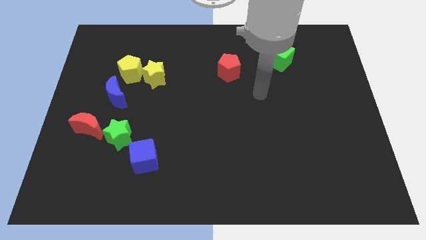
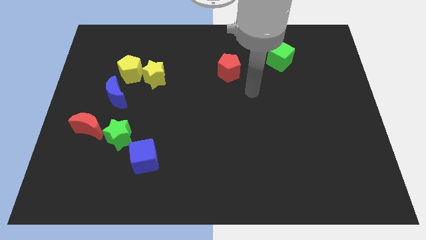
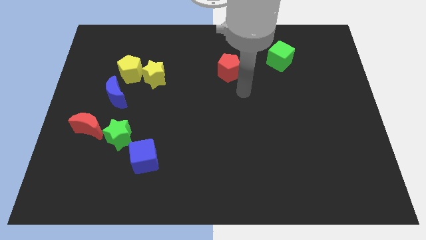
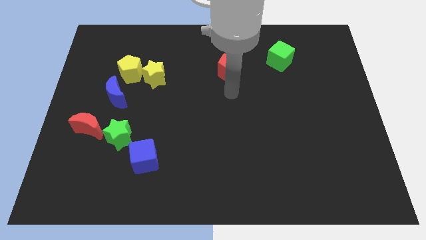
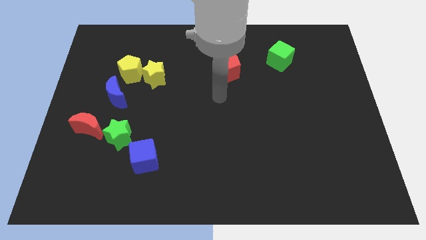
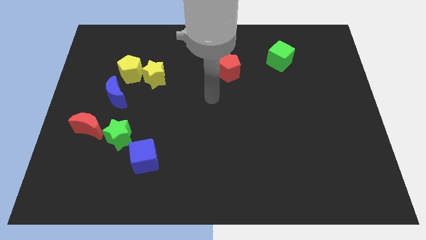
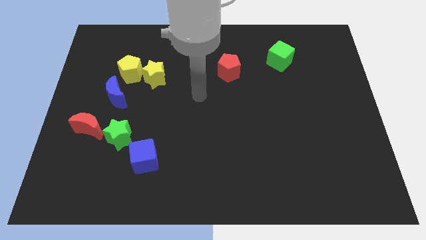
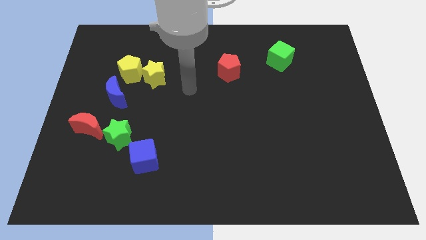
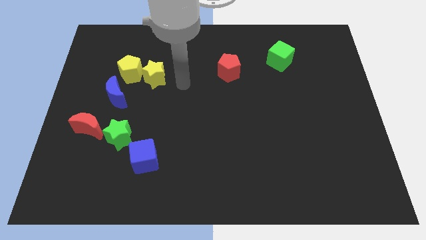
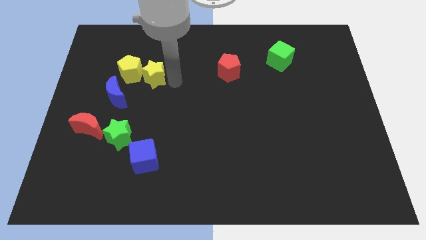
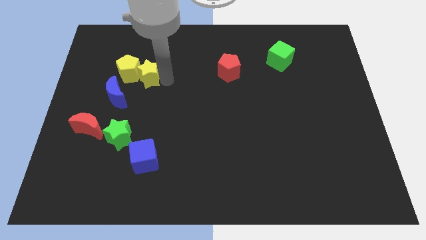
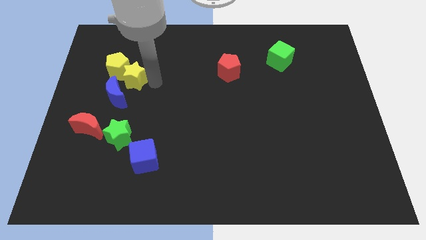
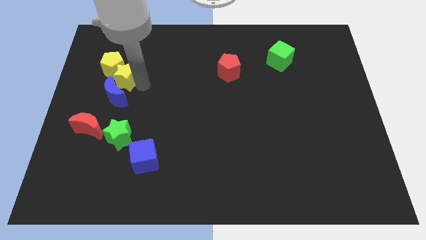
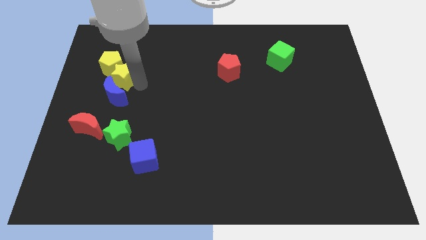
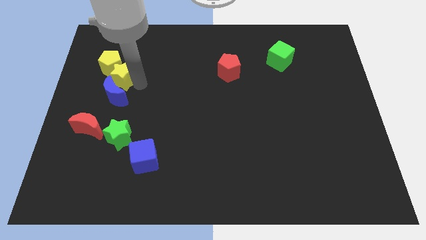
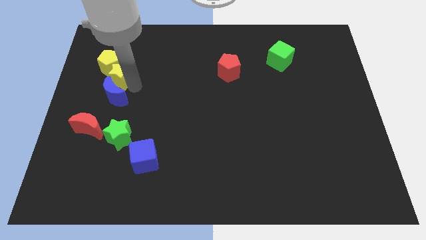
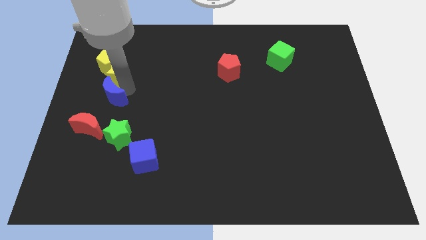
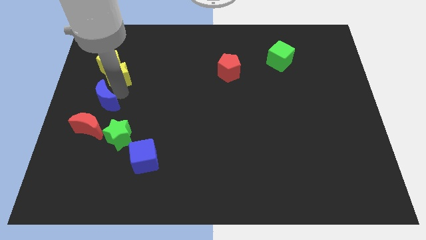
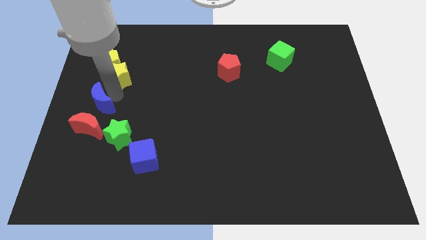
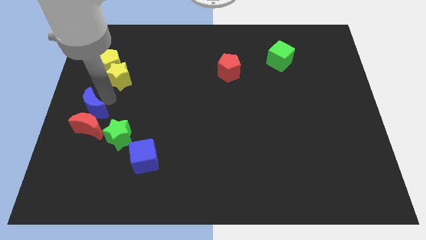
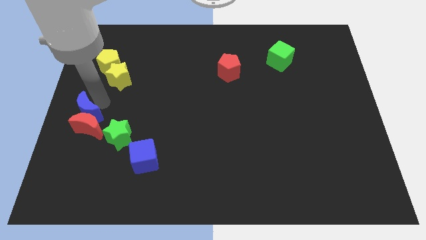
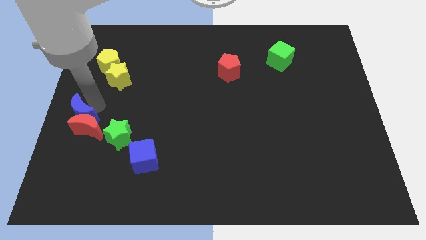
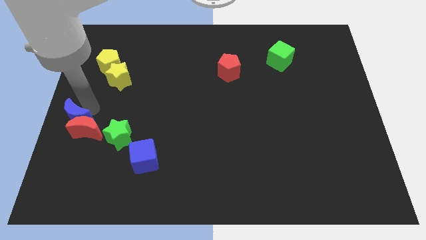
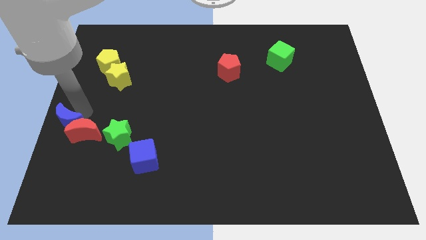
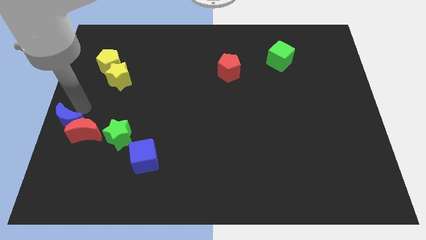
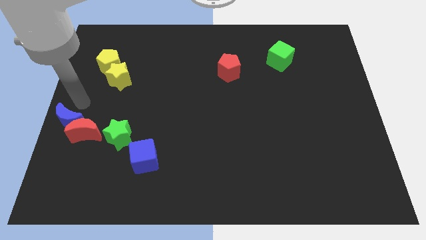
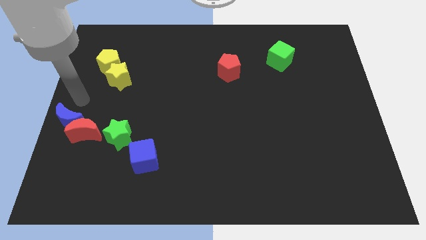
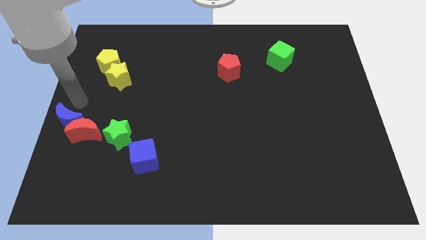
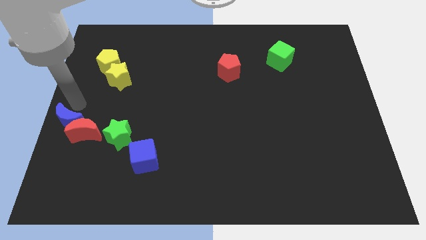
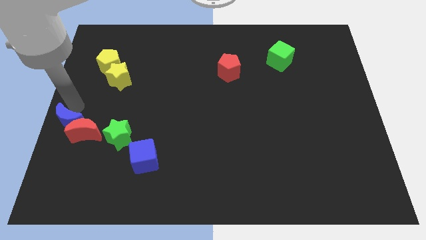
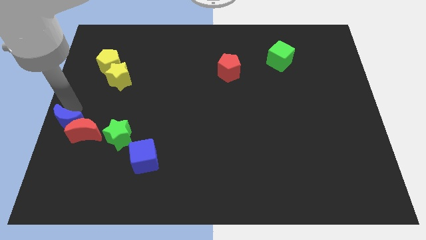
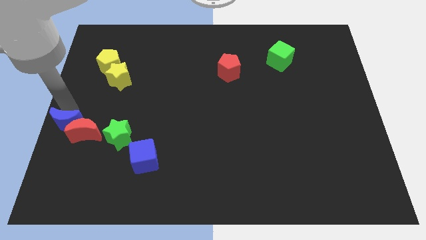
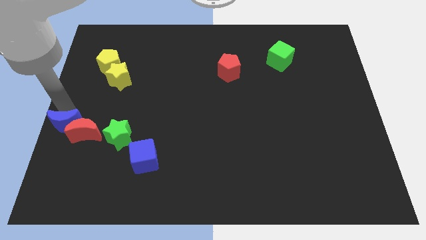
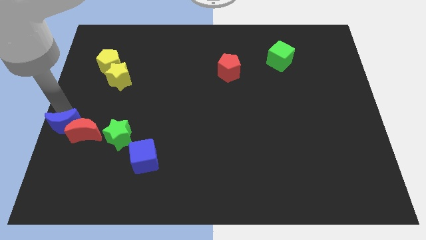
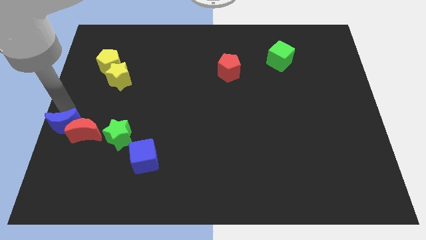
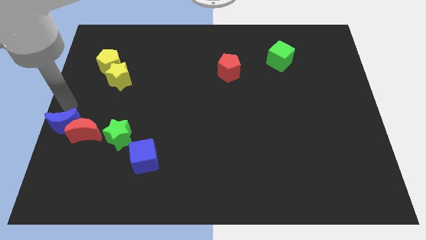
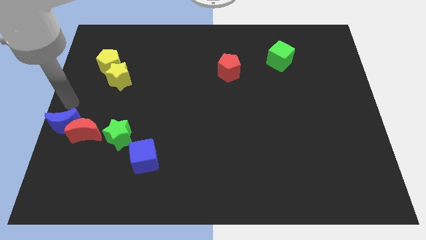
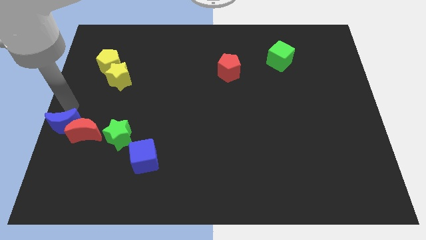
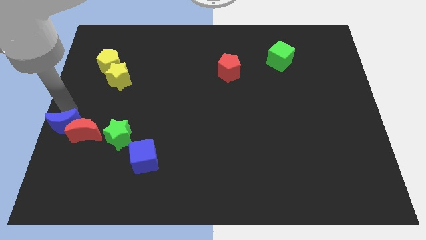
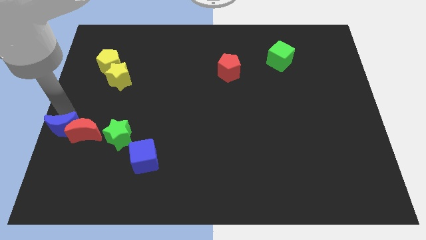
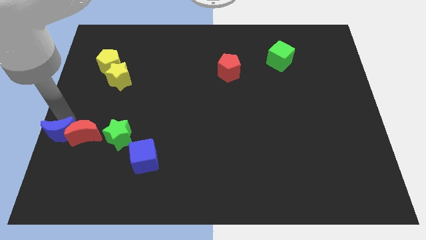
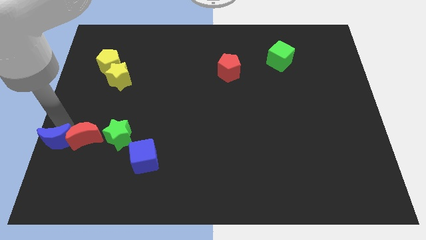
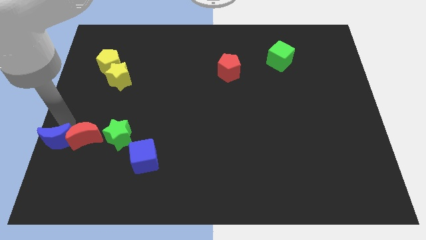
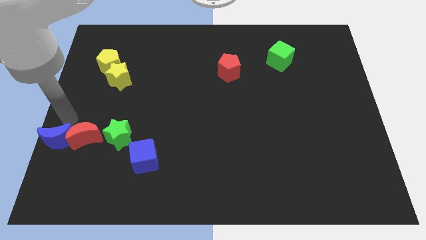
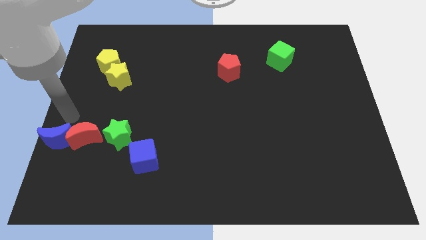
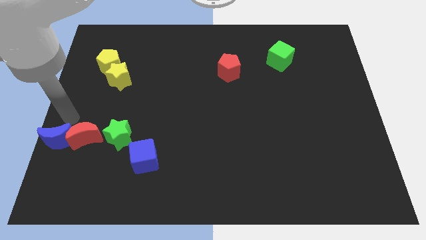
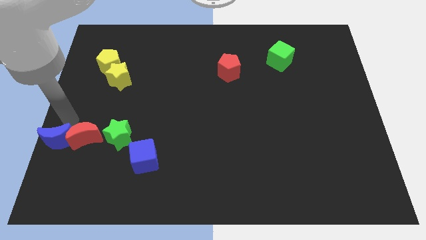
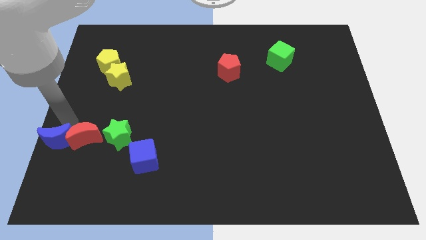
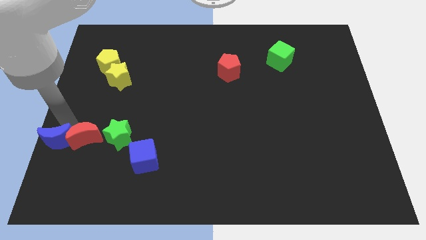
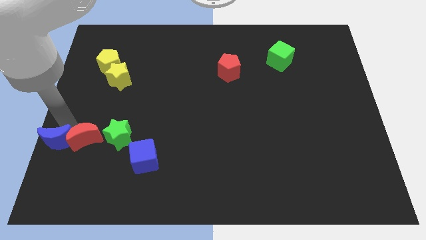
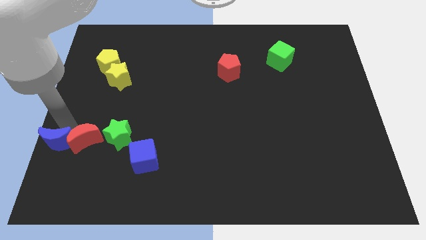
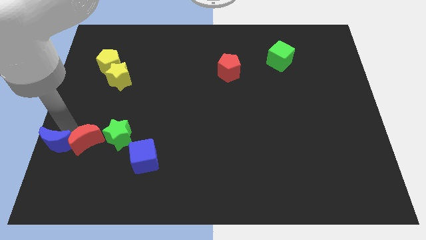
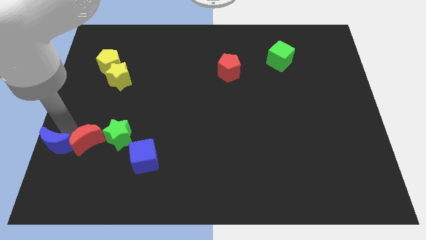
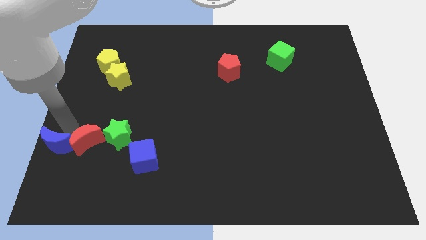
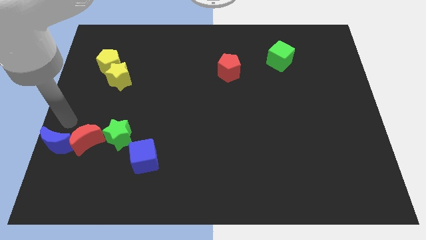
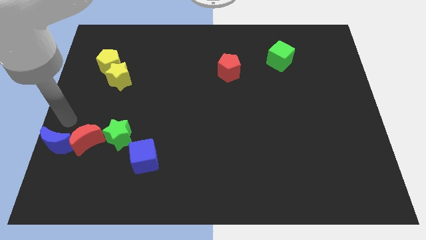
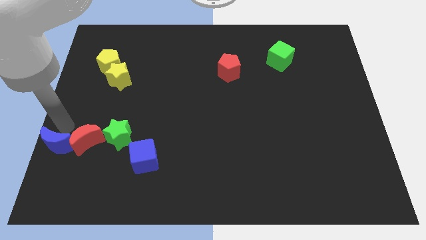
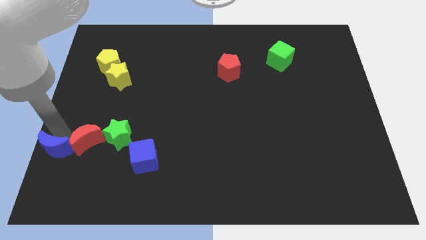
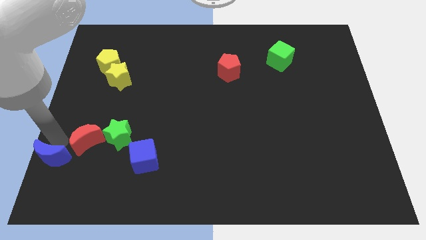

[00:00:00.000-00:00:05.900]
push the blue moon to the bottom left of the board

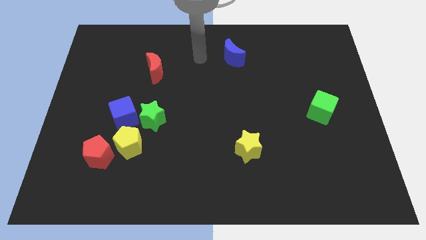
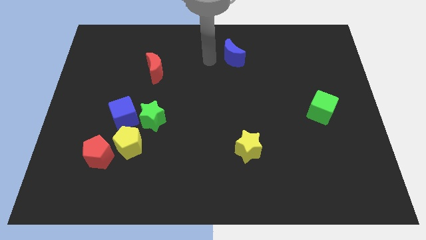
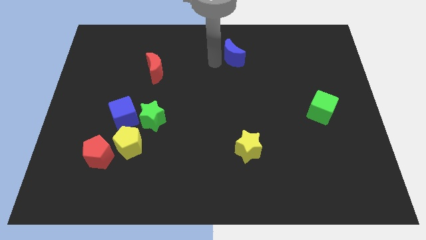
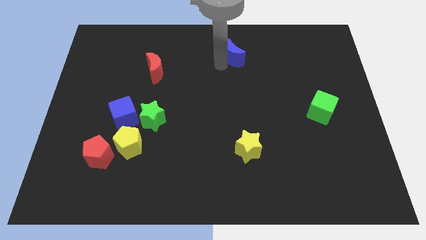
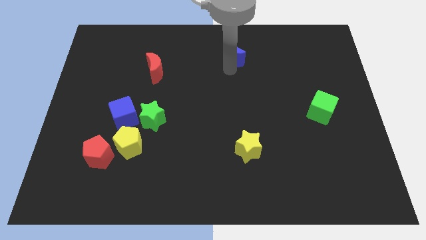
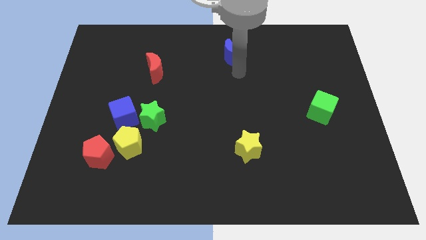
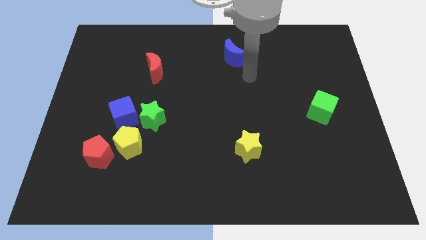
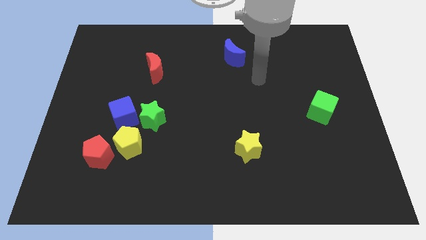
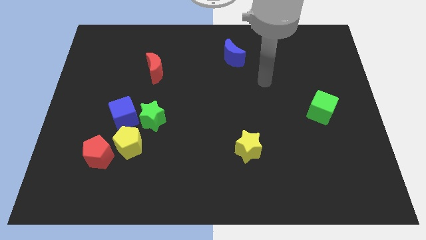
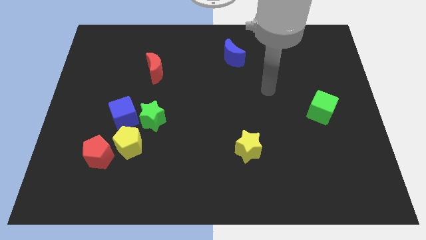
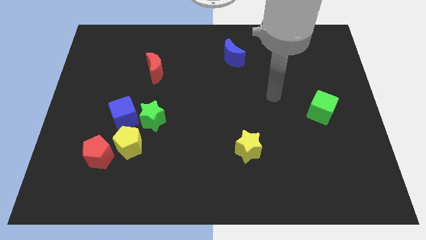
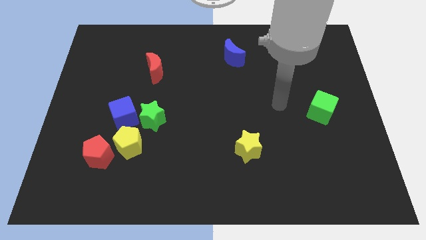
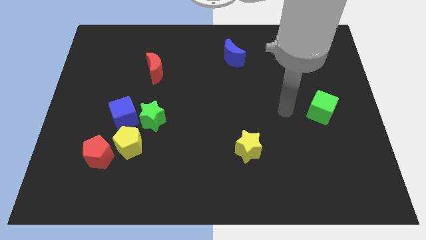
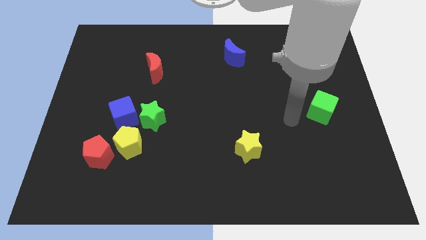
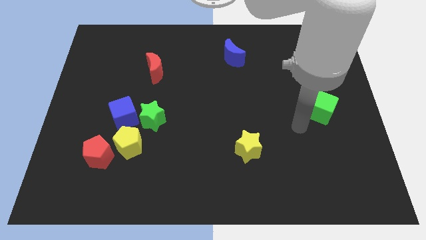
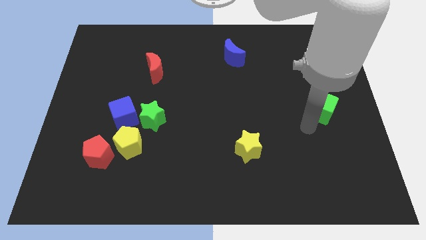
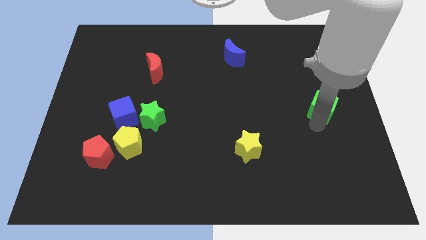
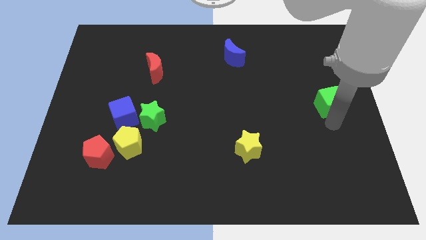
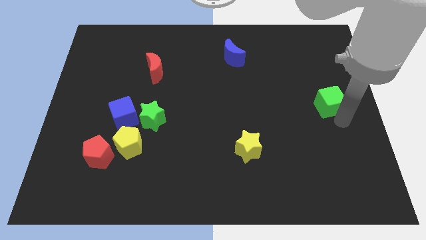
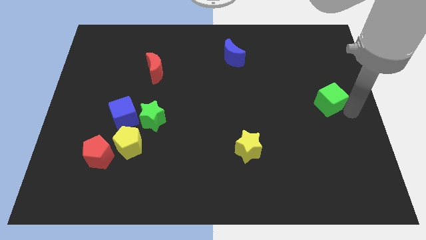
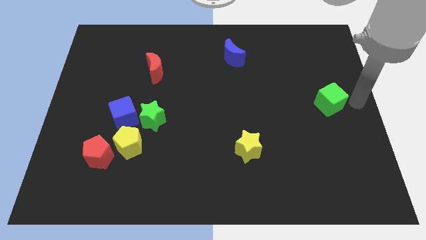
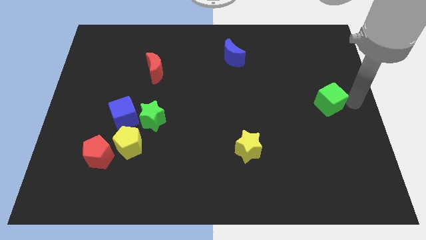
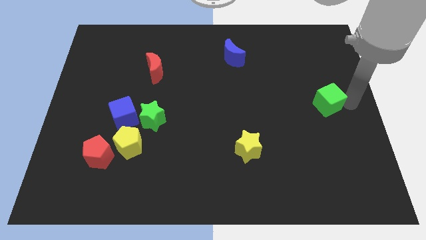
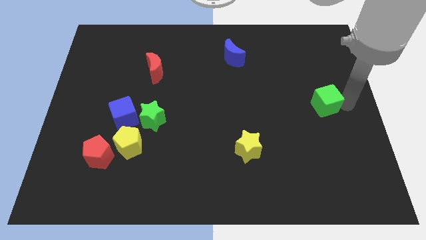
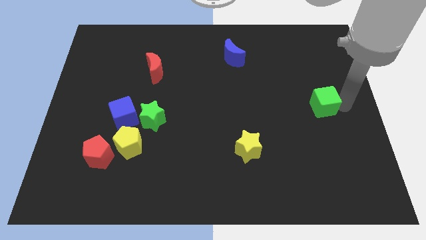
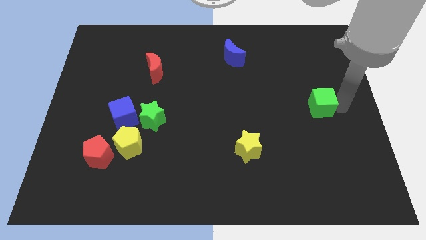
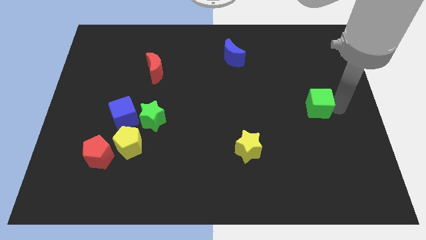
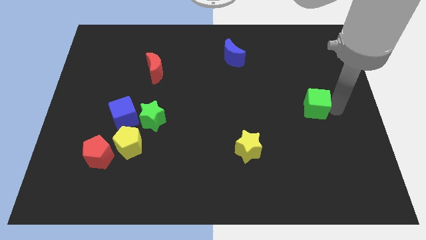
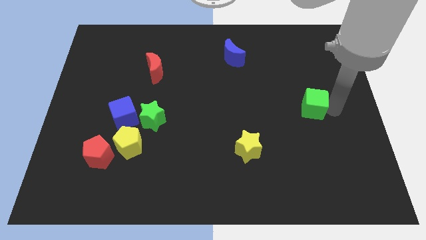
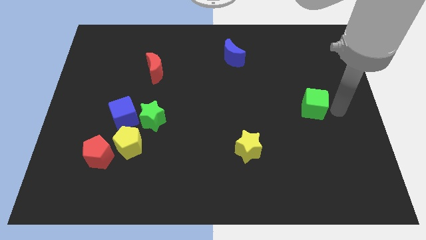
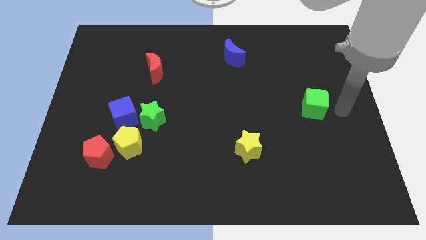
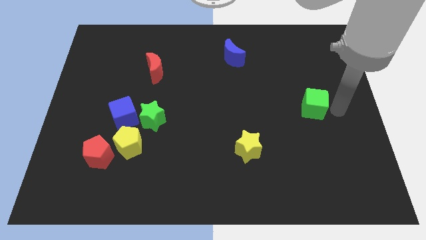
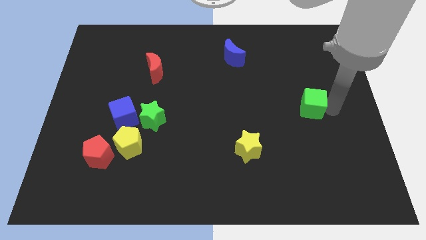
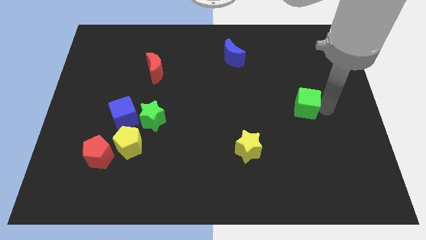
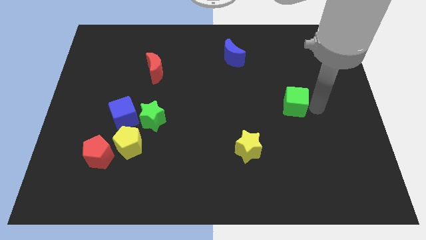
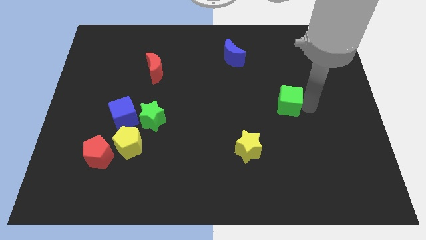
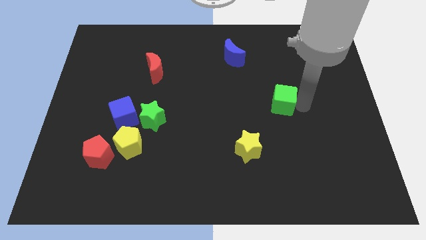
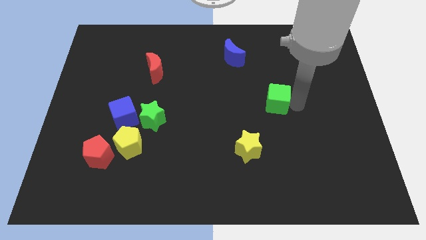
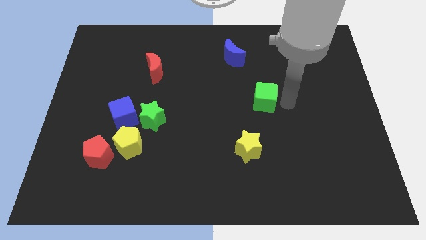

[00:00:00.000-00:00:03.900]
move the green cube to the middle of the board
